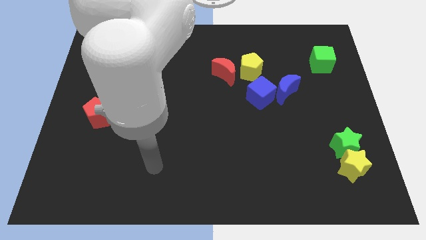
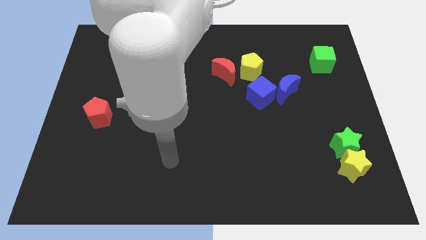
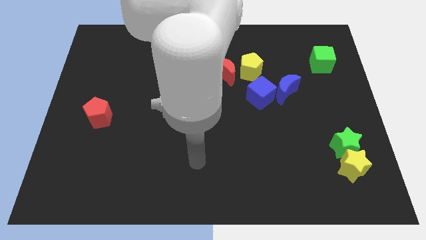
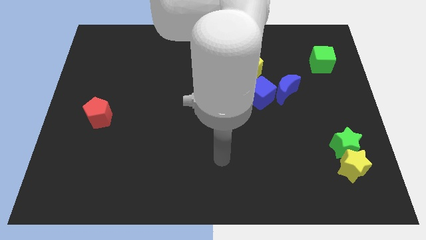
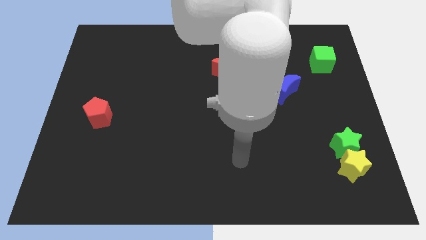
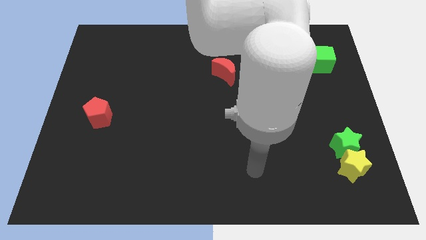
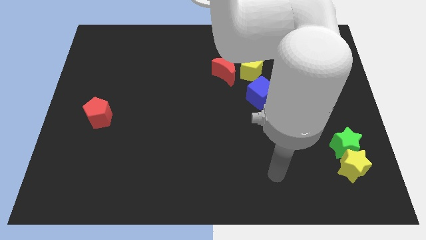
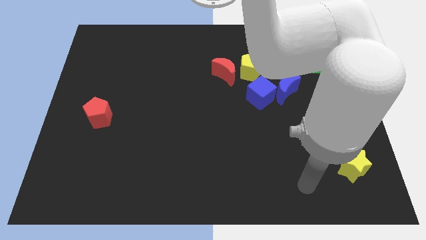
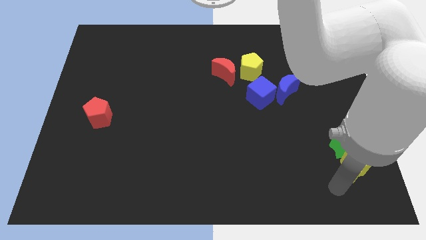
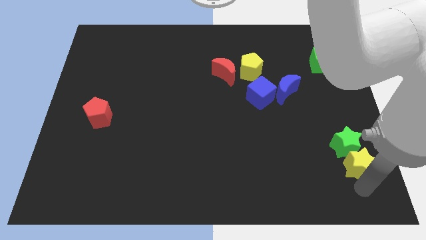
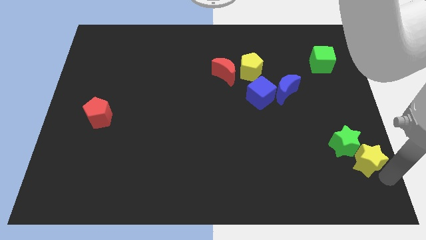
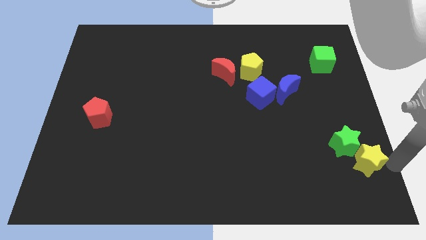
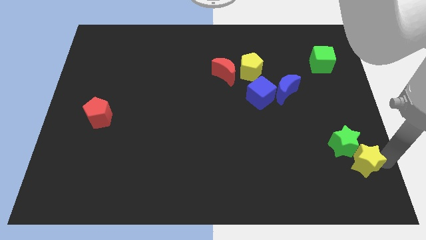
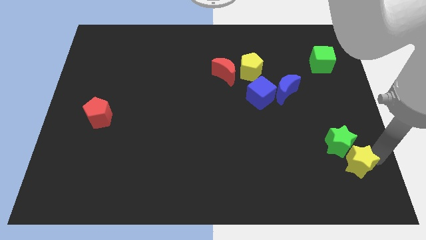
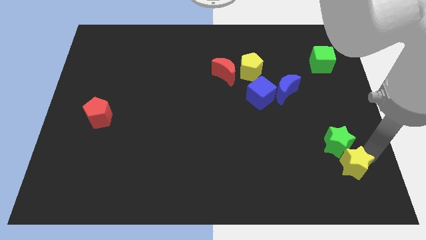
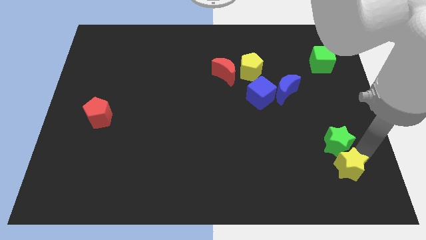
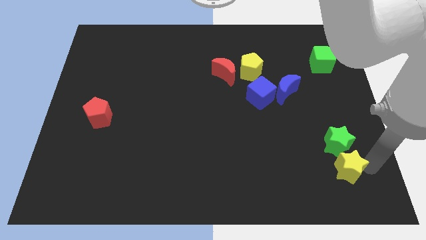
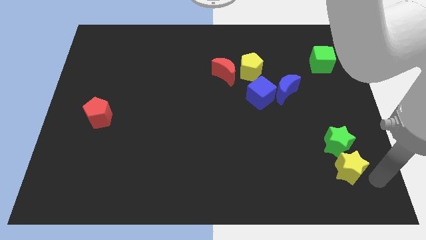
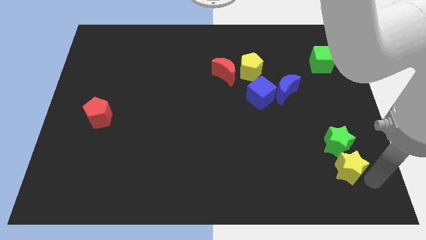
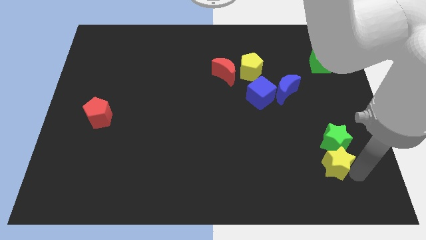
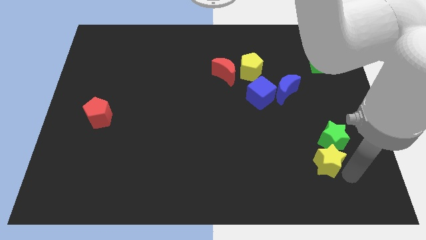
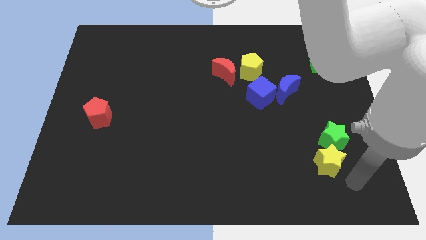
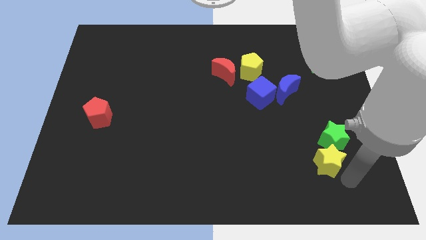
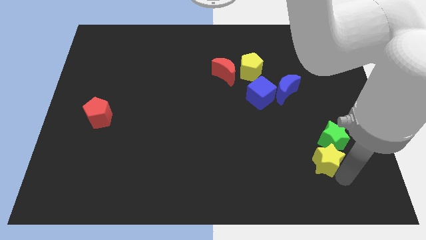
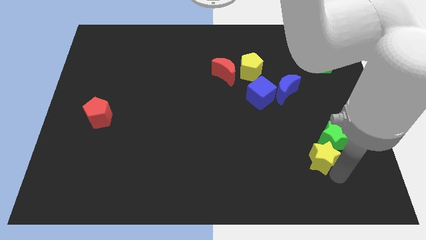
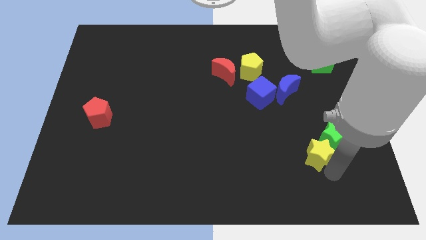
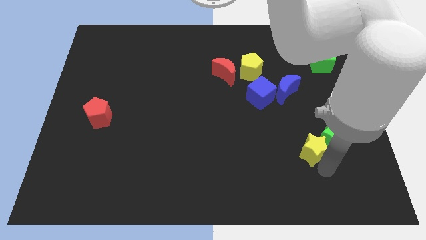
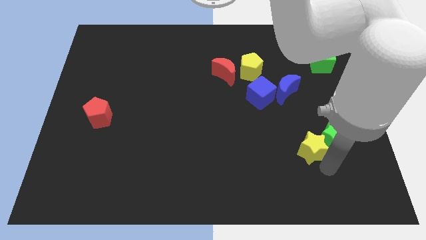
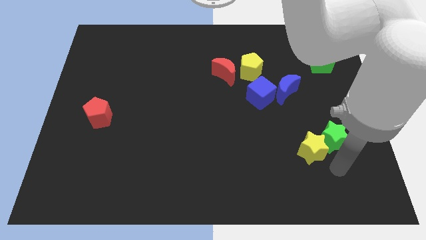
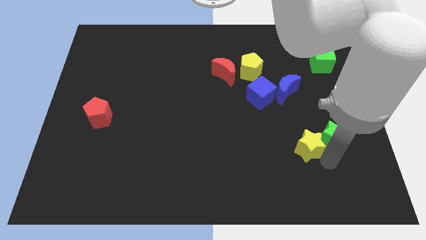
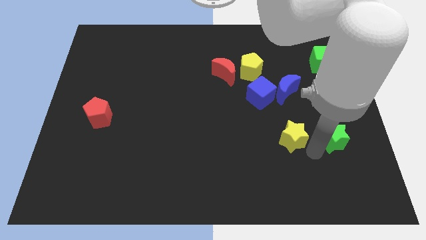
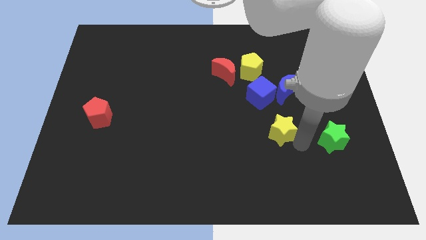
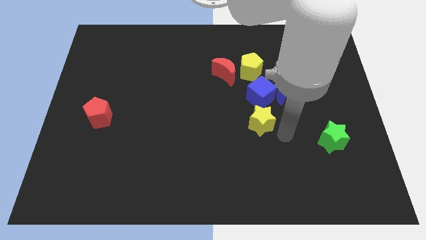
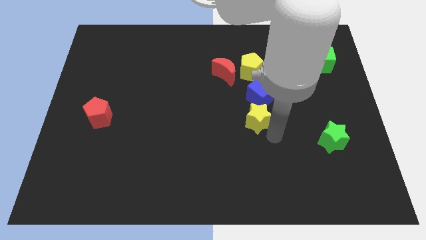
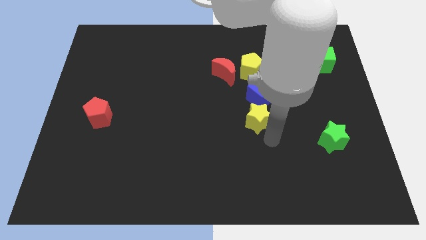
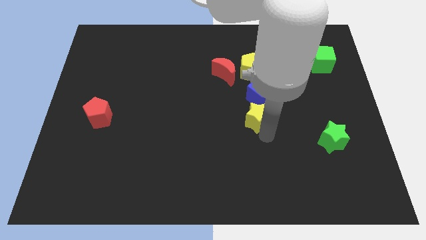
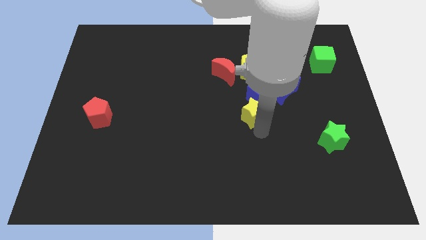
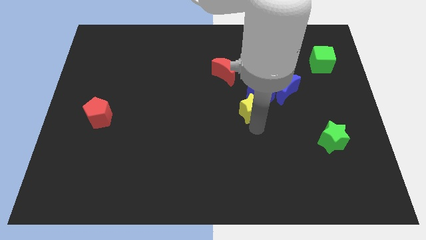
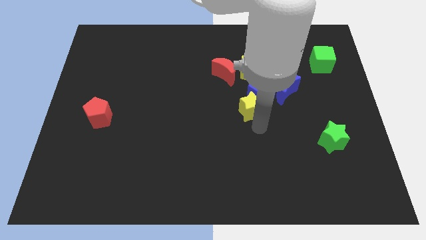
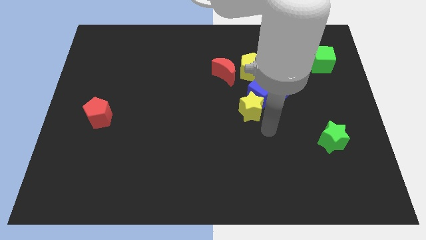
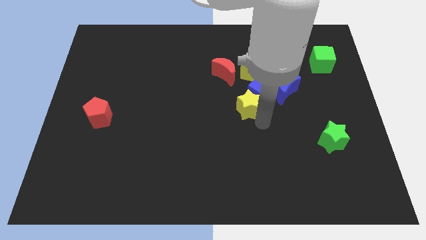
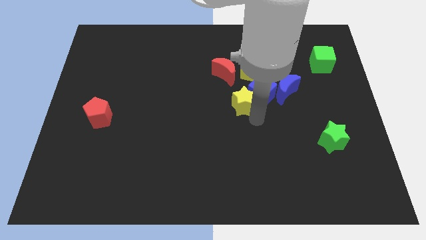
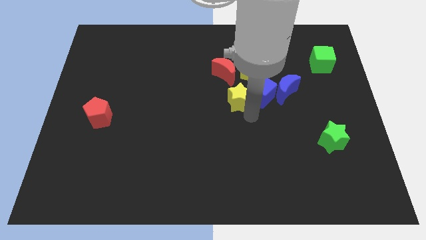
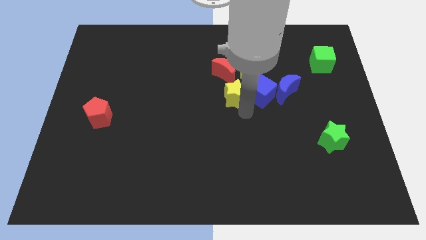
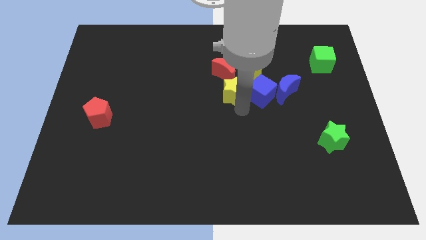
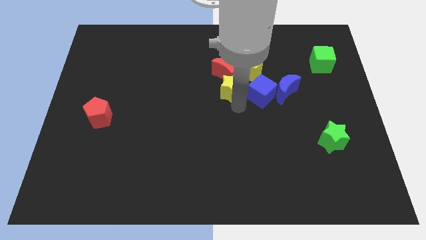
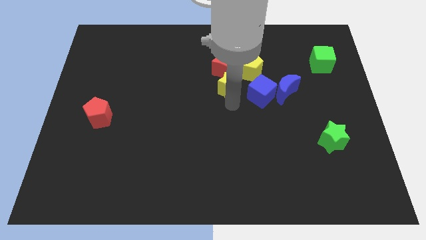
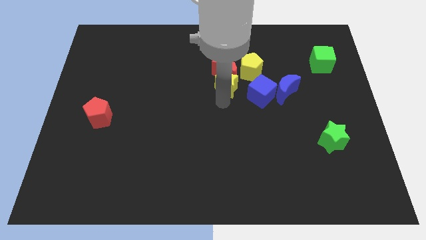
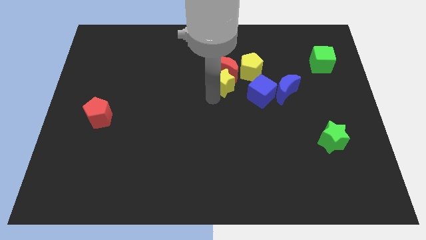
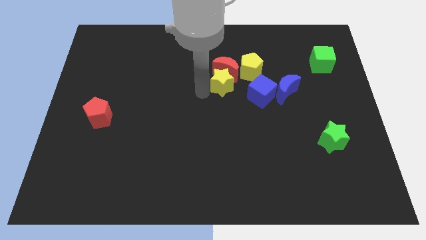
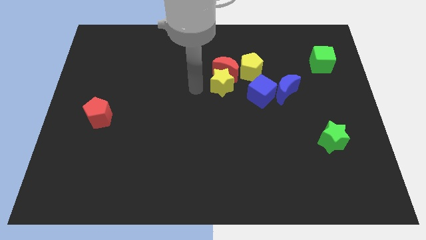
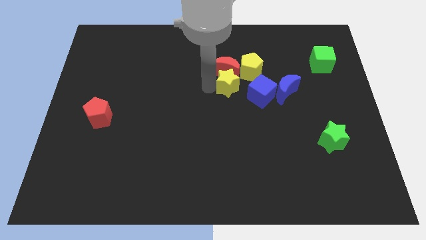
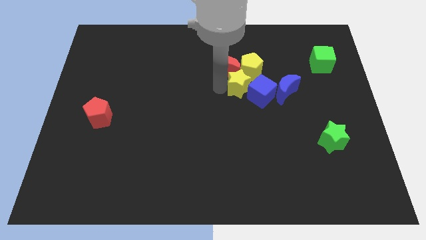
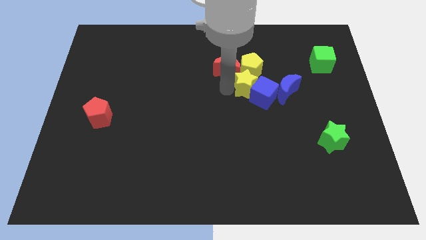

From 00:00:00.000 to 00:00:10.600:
move the yellow star next to the yellow pentagon

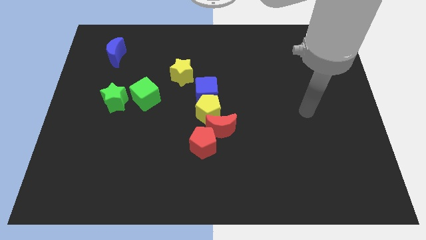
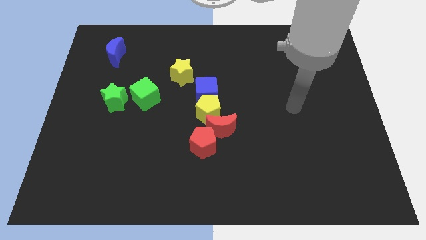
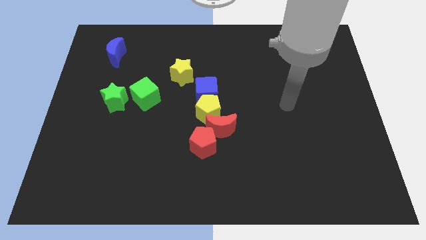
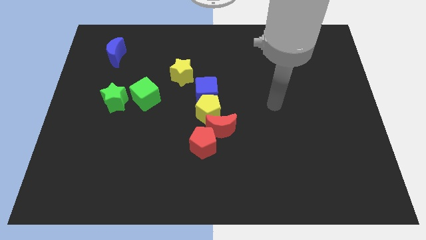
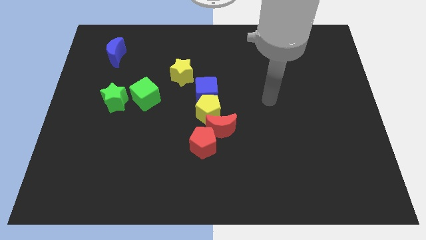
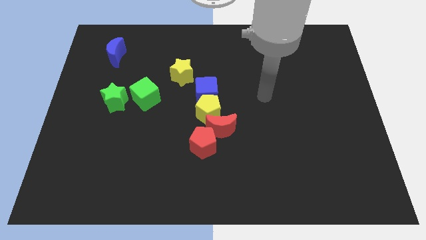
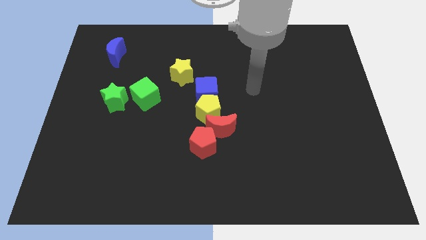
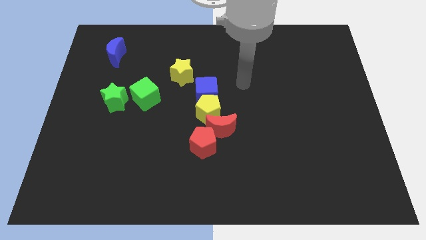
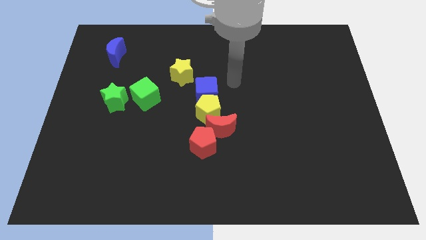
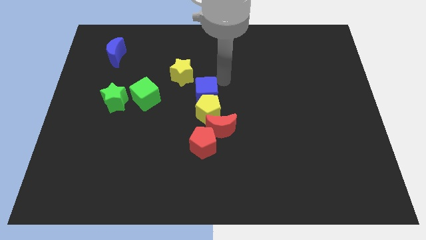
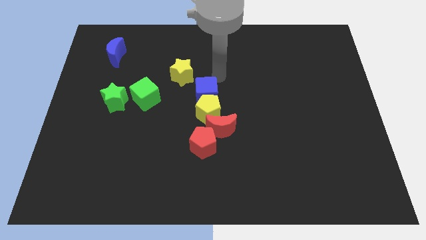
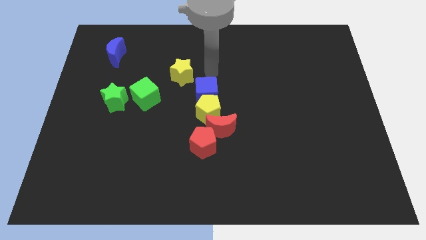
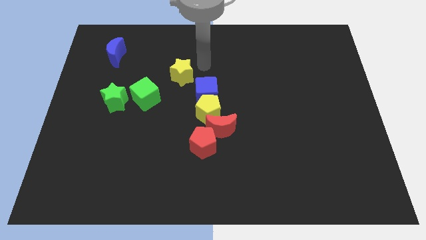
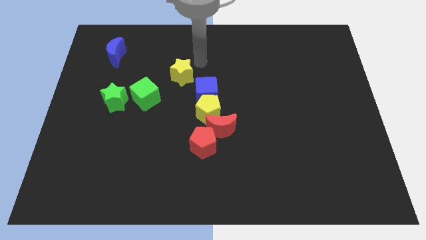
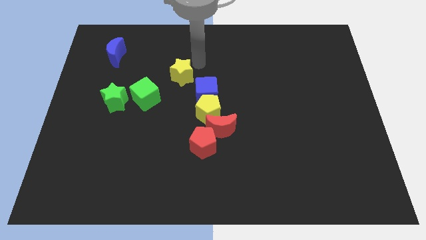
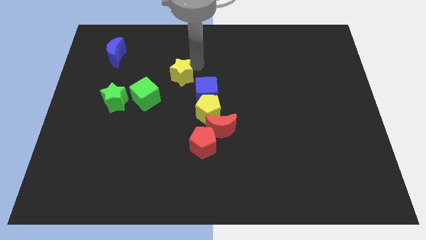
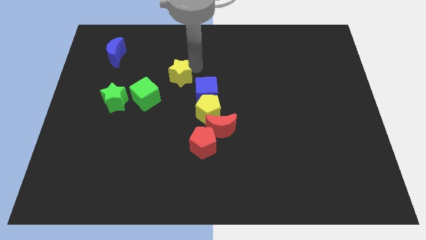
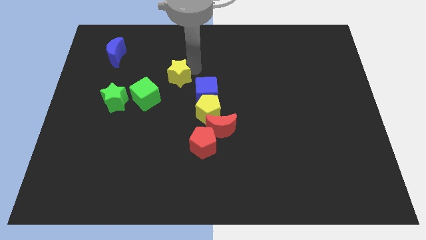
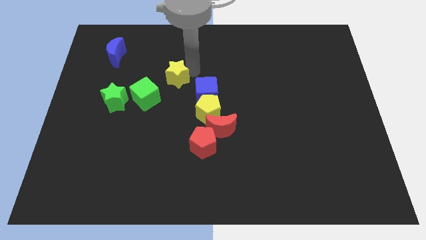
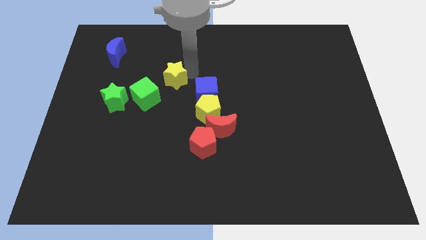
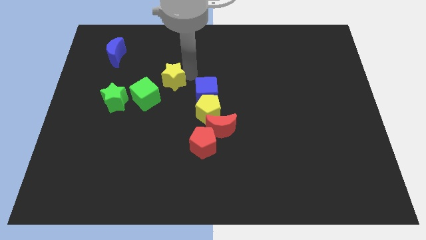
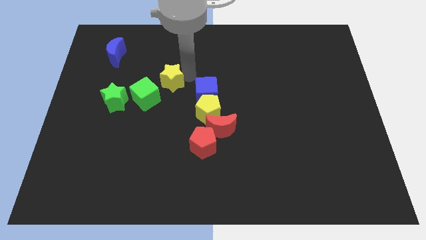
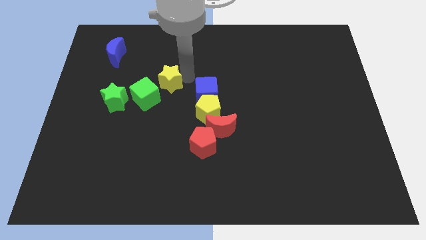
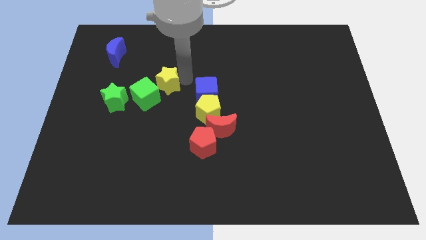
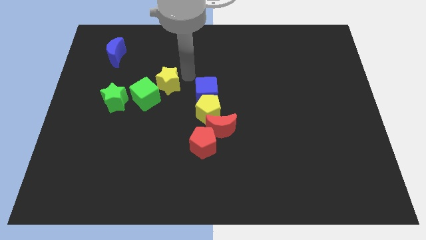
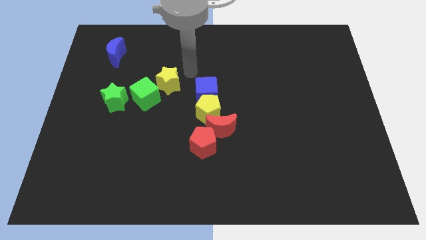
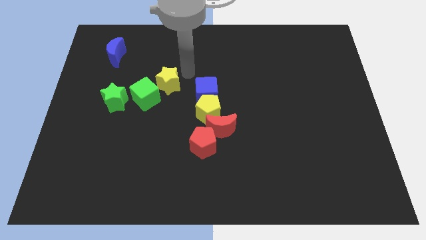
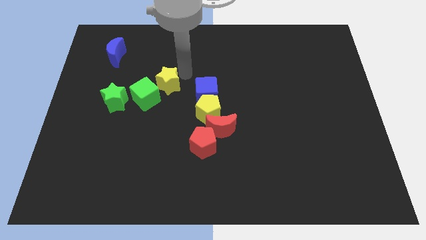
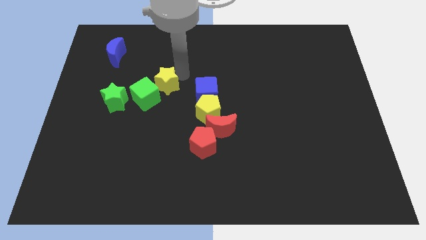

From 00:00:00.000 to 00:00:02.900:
push the yellow star close to the green cube
